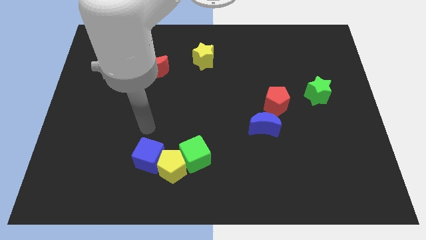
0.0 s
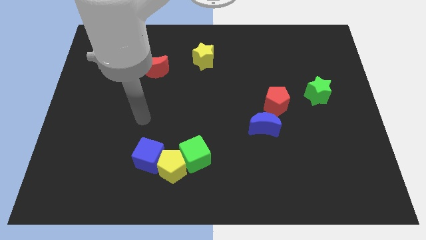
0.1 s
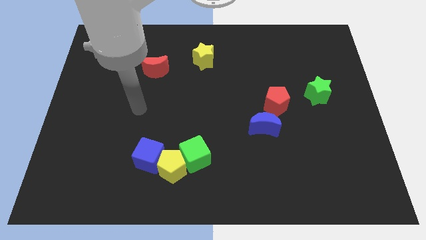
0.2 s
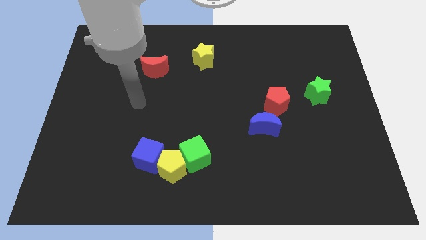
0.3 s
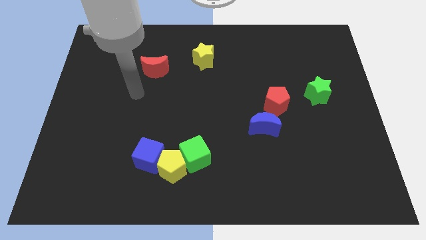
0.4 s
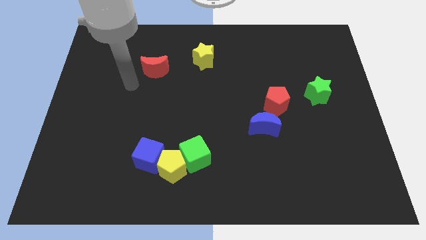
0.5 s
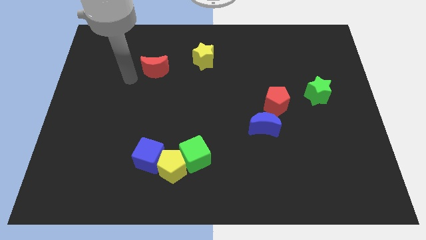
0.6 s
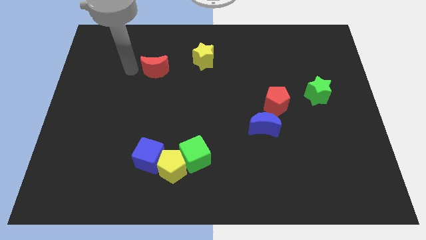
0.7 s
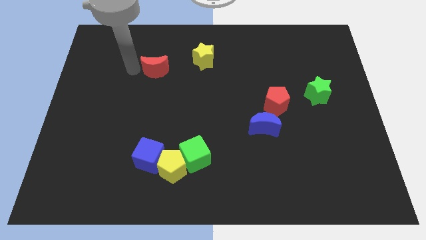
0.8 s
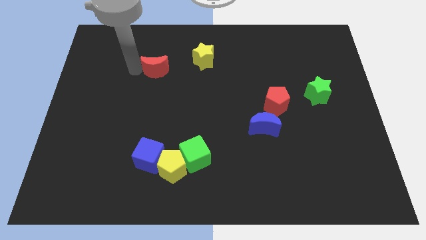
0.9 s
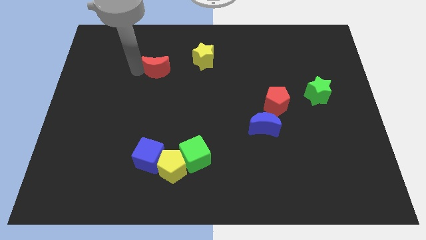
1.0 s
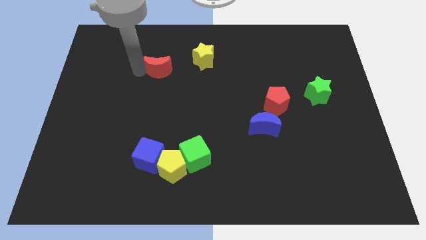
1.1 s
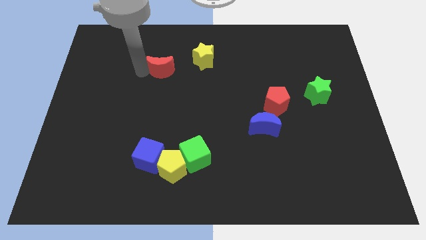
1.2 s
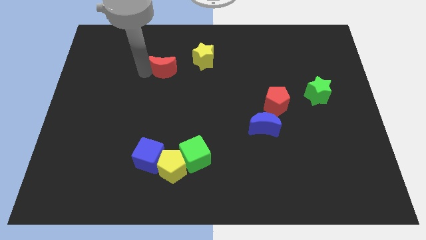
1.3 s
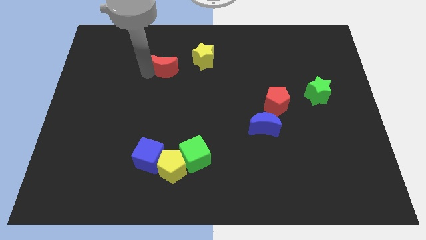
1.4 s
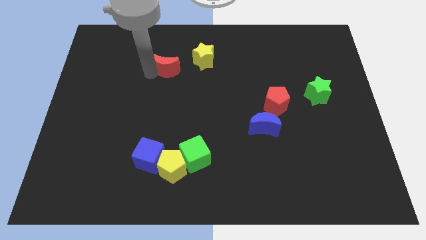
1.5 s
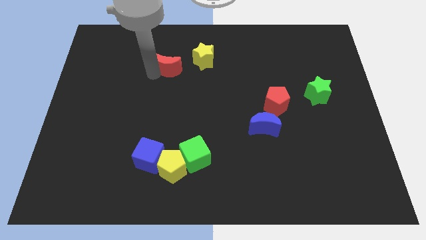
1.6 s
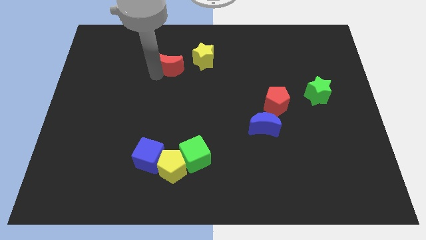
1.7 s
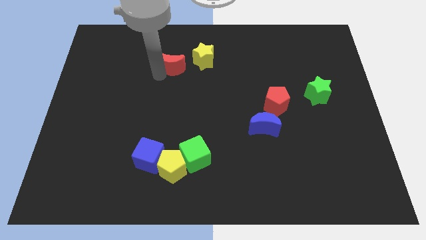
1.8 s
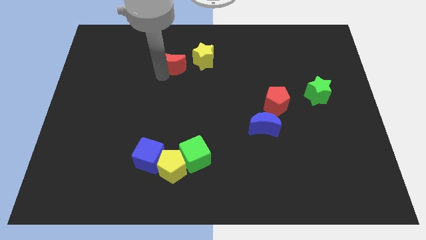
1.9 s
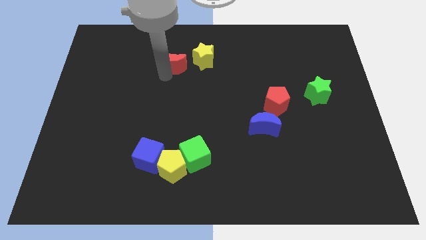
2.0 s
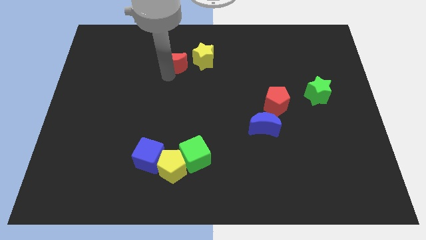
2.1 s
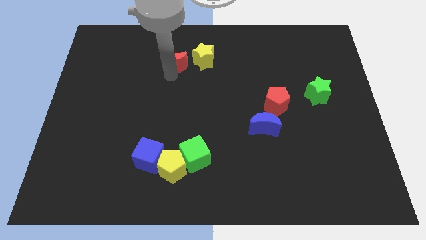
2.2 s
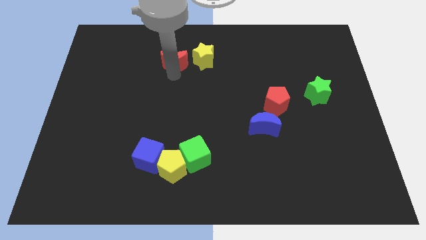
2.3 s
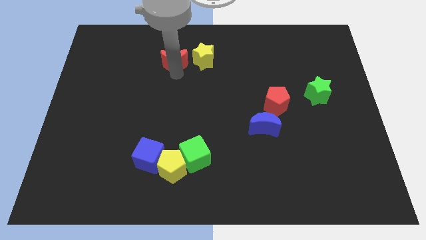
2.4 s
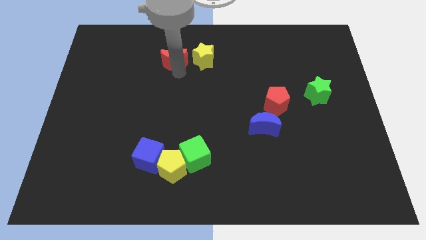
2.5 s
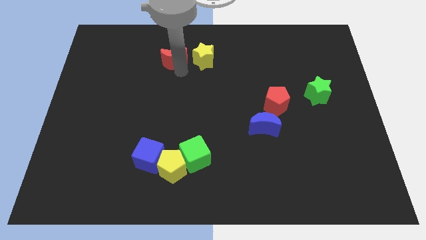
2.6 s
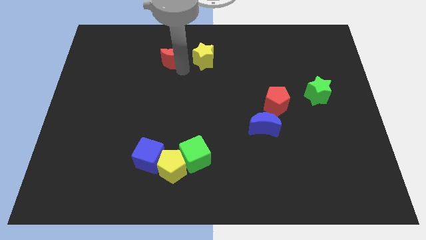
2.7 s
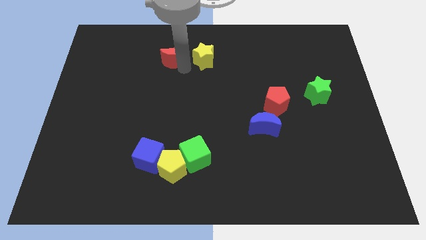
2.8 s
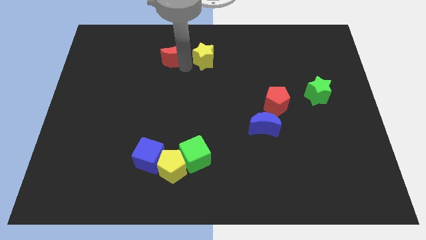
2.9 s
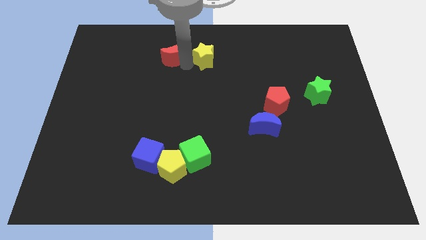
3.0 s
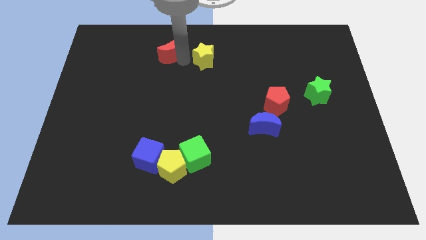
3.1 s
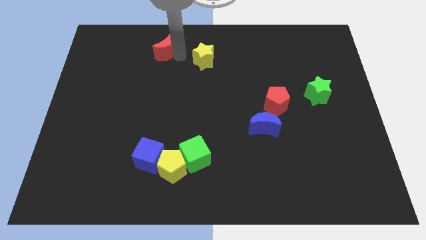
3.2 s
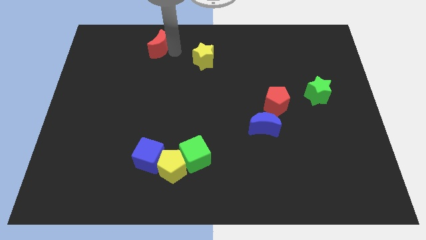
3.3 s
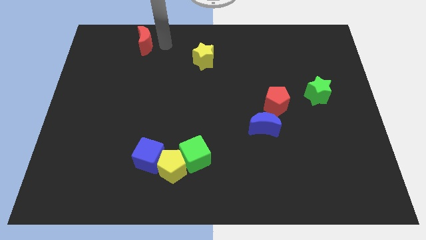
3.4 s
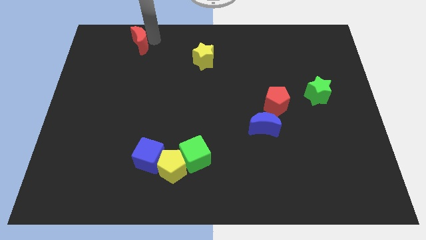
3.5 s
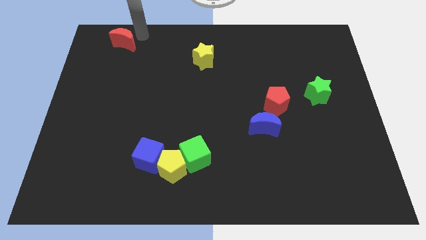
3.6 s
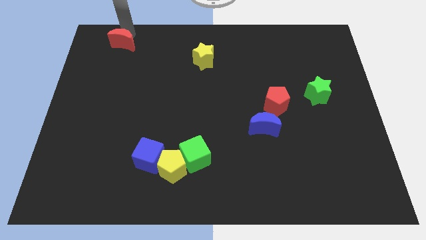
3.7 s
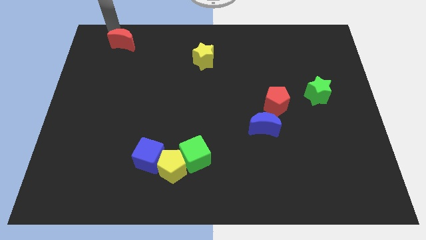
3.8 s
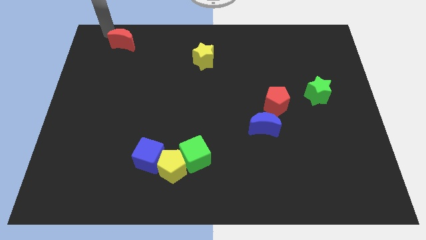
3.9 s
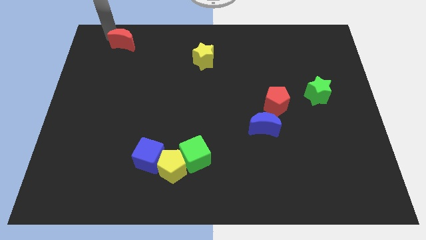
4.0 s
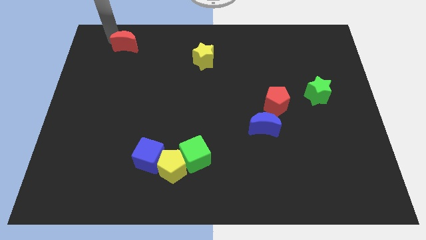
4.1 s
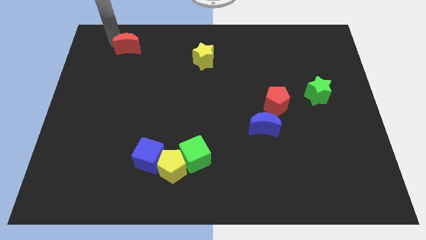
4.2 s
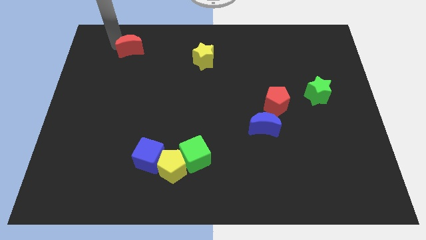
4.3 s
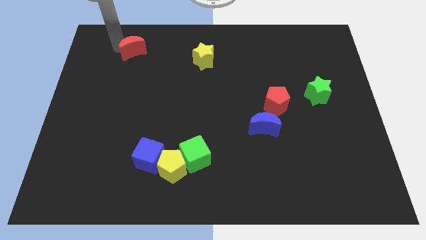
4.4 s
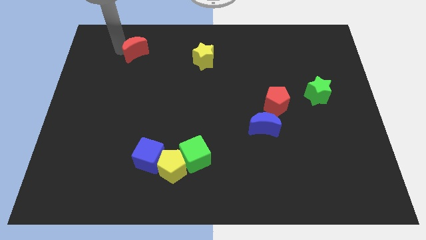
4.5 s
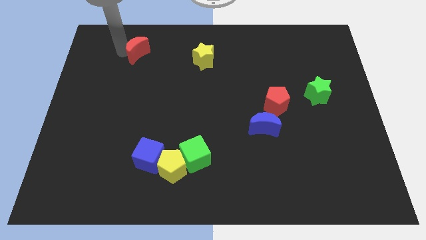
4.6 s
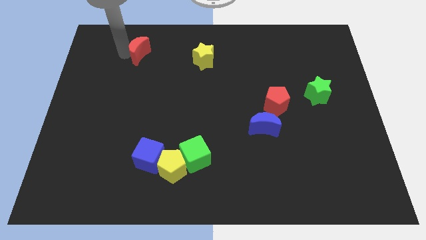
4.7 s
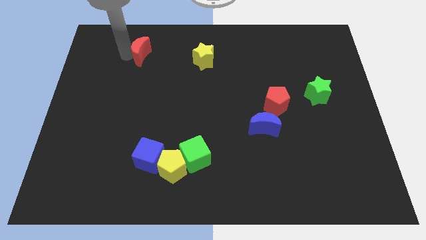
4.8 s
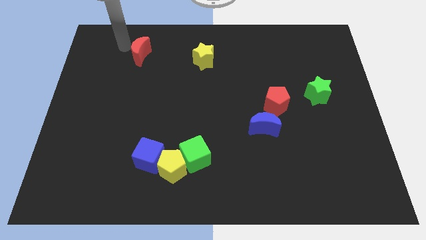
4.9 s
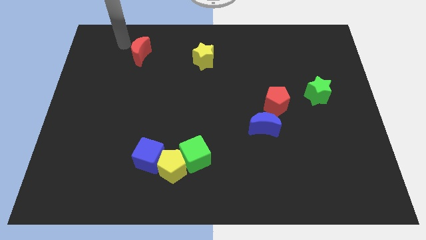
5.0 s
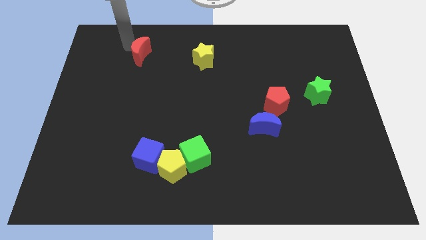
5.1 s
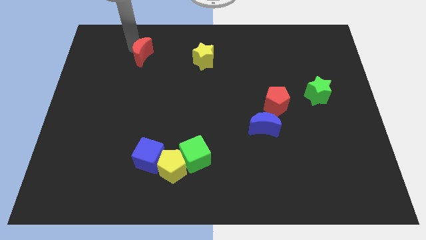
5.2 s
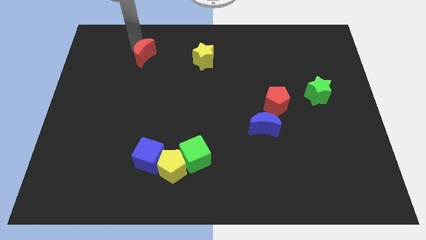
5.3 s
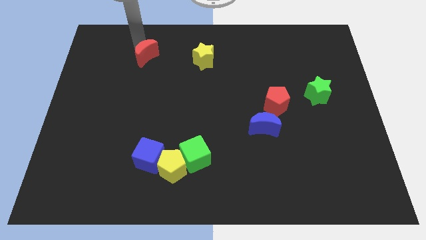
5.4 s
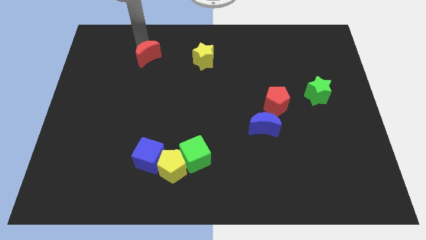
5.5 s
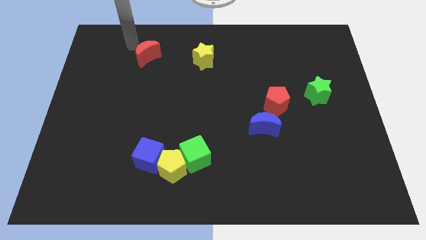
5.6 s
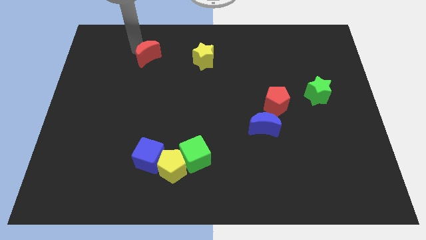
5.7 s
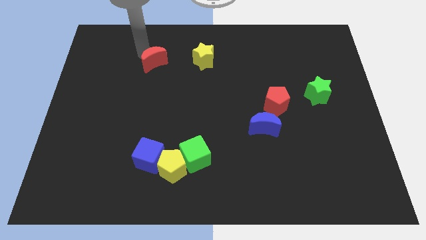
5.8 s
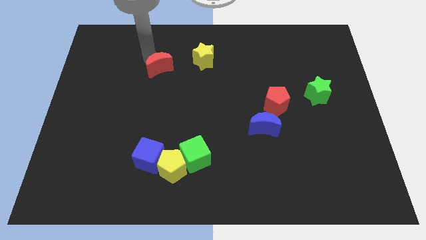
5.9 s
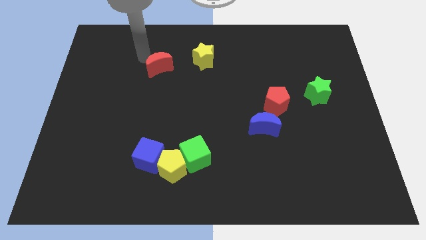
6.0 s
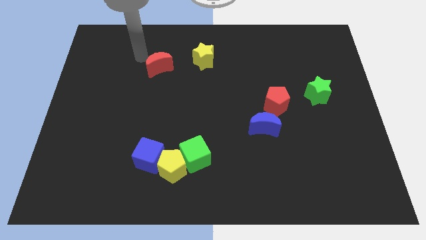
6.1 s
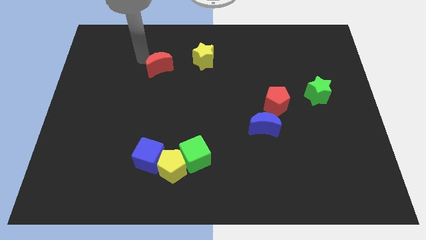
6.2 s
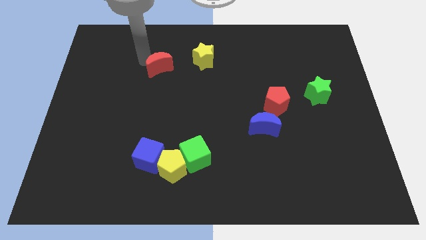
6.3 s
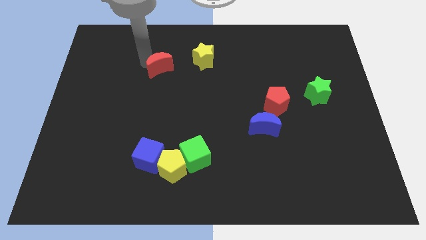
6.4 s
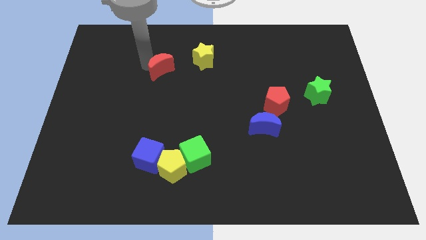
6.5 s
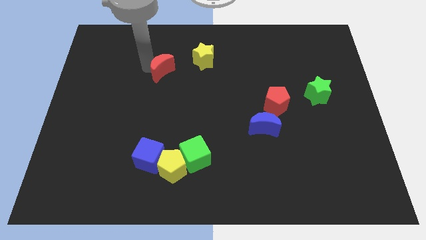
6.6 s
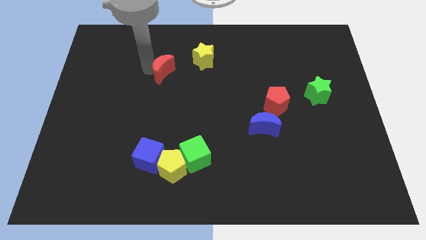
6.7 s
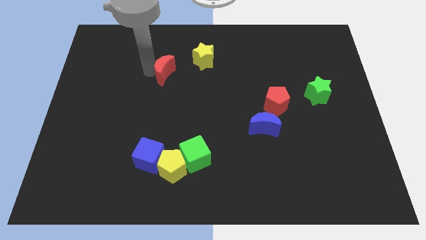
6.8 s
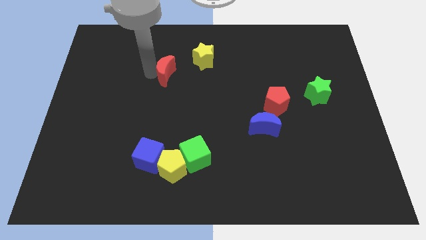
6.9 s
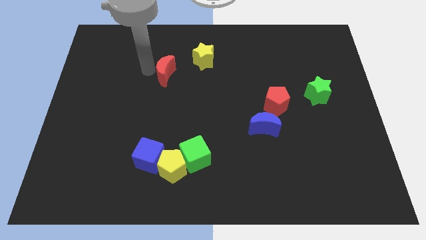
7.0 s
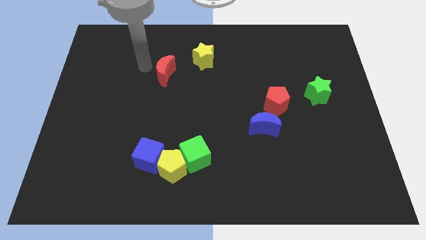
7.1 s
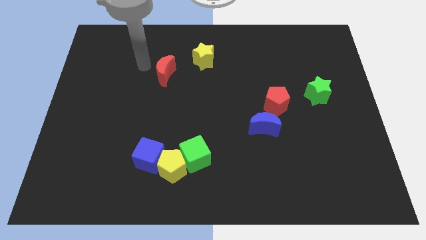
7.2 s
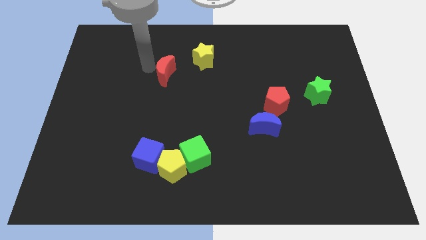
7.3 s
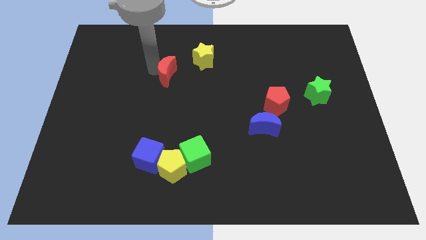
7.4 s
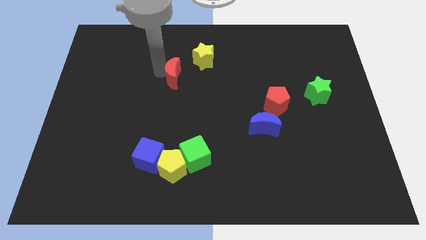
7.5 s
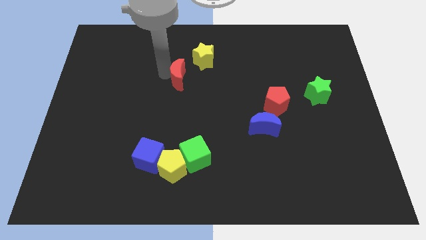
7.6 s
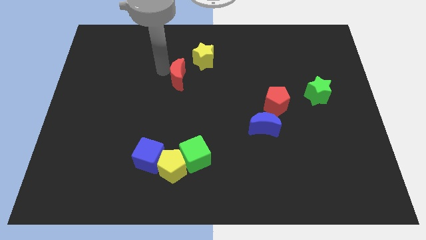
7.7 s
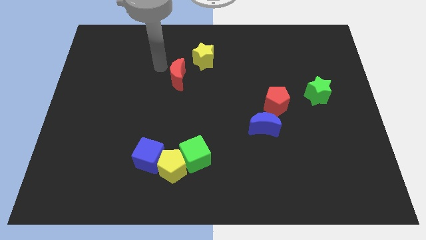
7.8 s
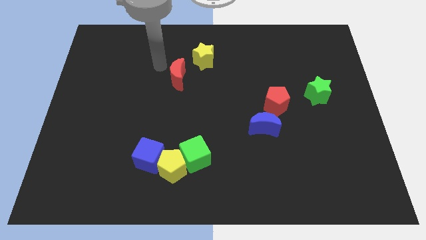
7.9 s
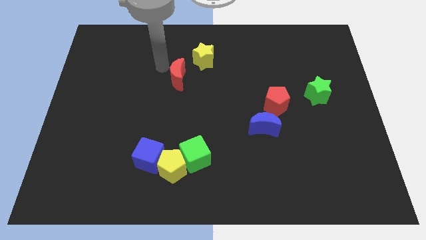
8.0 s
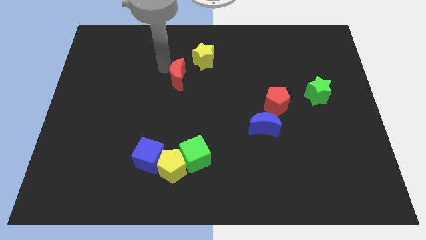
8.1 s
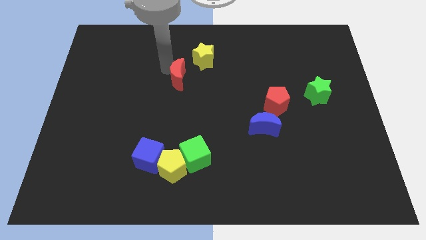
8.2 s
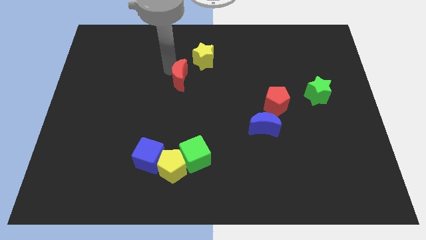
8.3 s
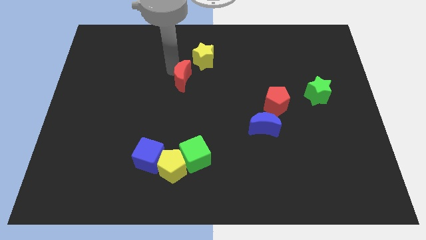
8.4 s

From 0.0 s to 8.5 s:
slide the red moon somewhat downwards and then to the right
